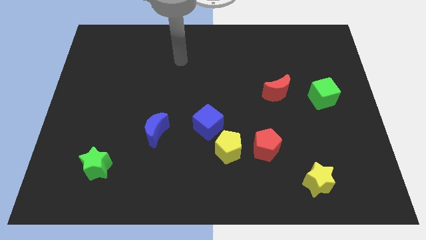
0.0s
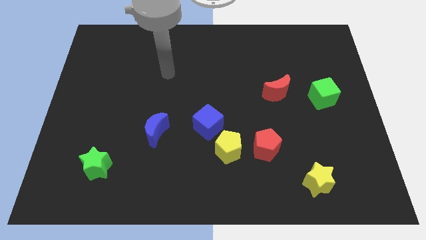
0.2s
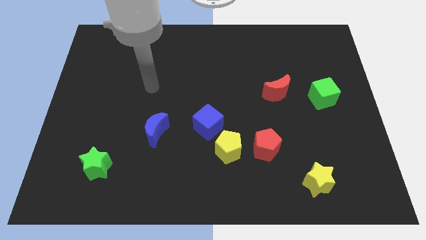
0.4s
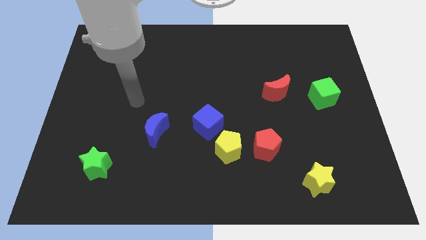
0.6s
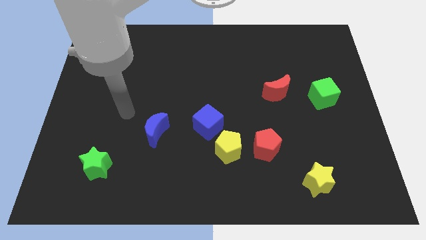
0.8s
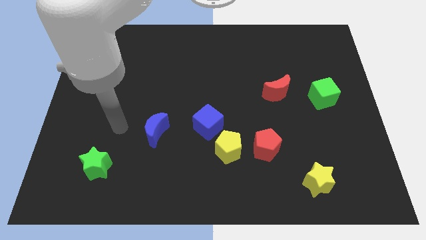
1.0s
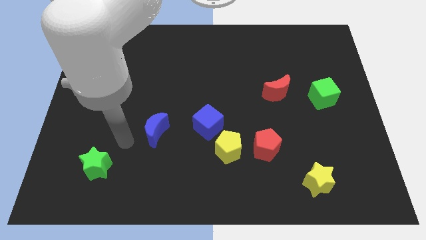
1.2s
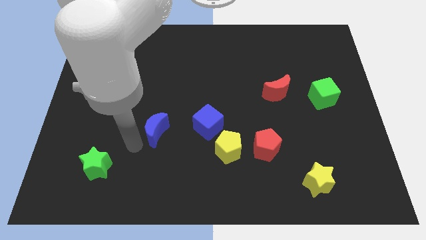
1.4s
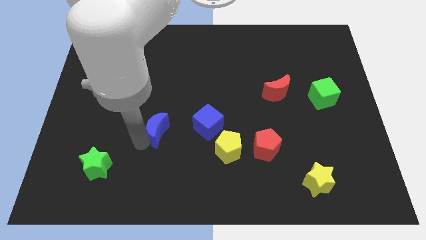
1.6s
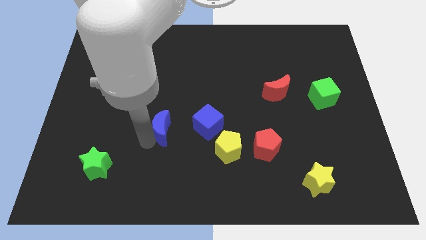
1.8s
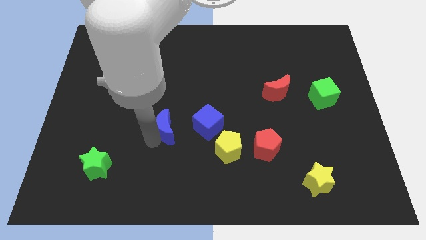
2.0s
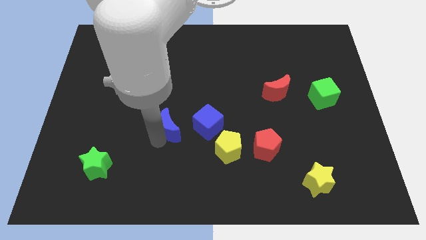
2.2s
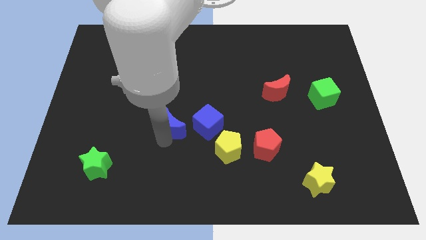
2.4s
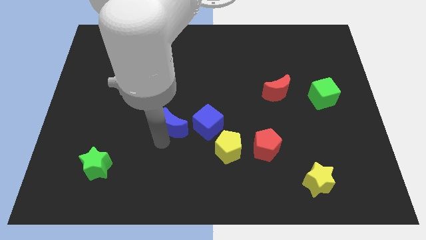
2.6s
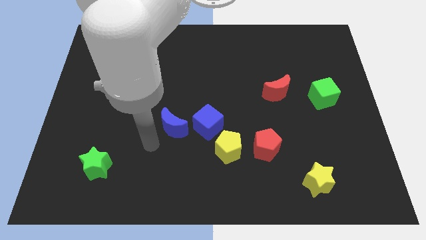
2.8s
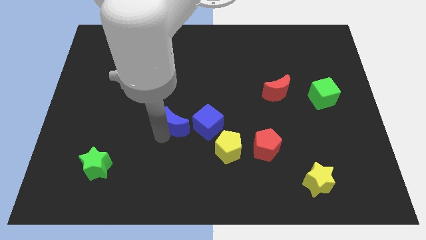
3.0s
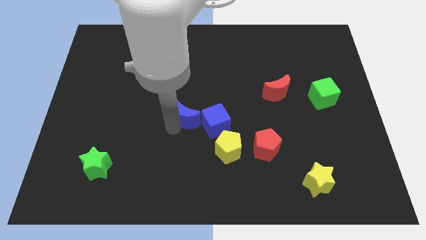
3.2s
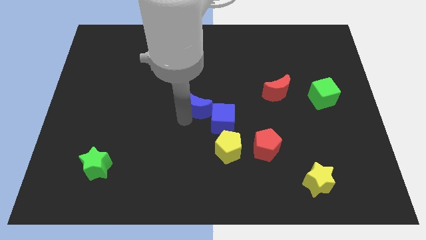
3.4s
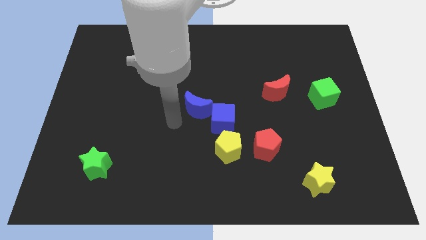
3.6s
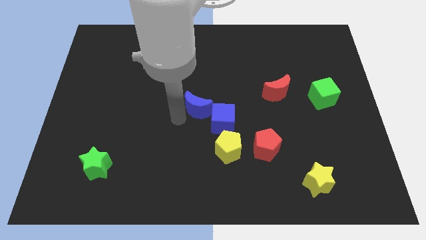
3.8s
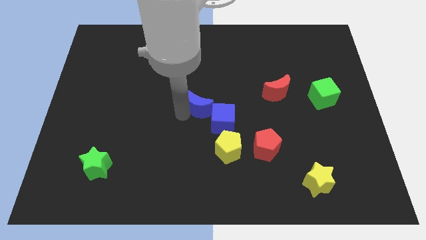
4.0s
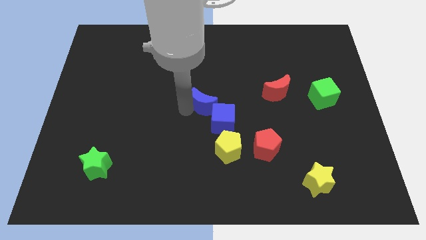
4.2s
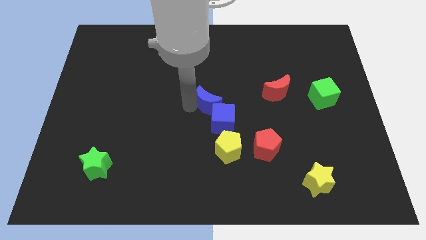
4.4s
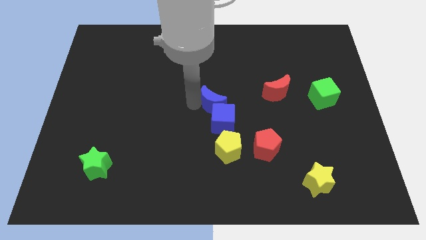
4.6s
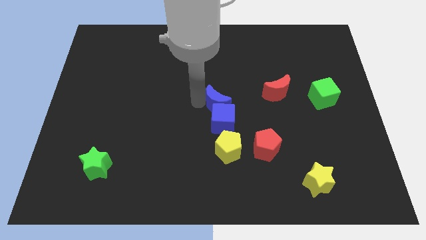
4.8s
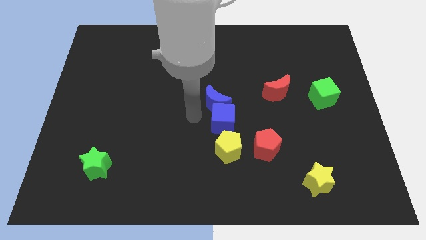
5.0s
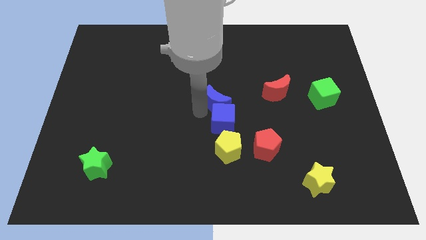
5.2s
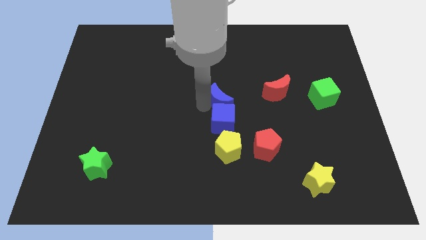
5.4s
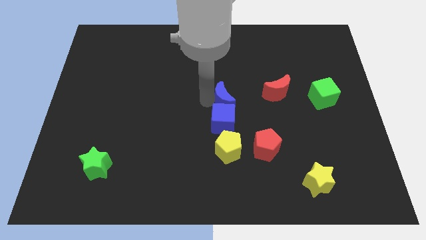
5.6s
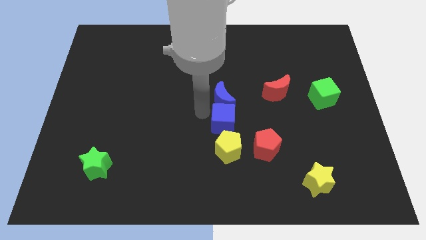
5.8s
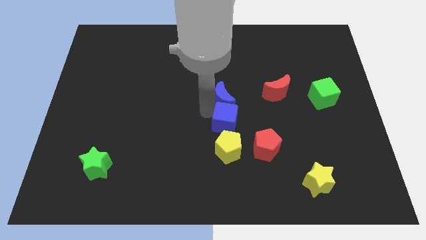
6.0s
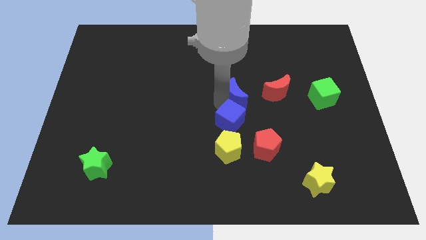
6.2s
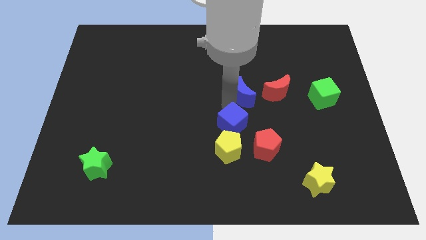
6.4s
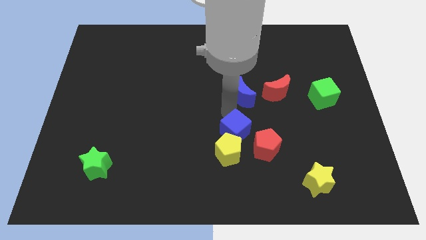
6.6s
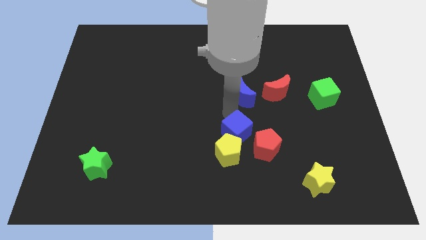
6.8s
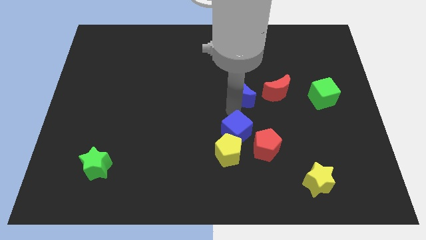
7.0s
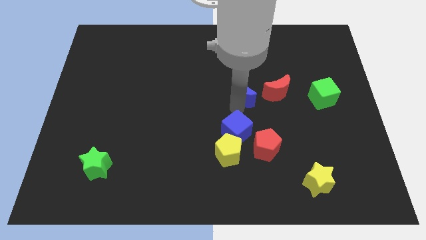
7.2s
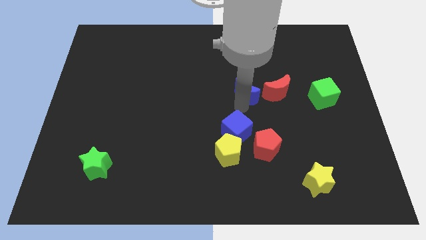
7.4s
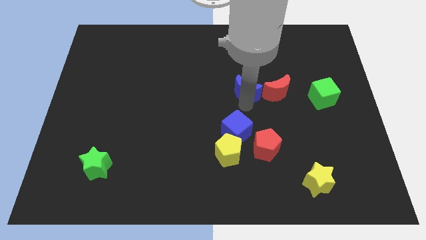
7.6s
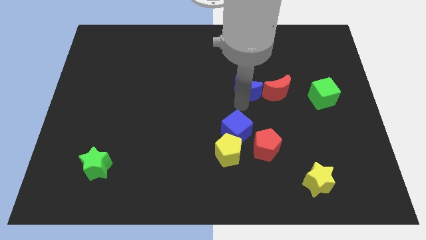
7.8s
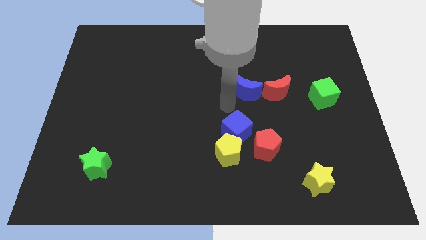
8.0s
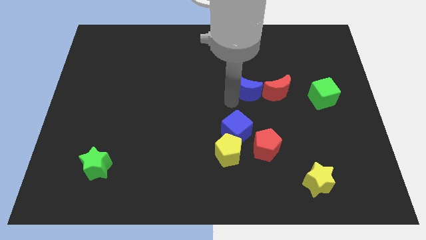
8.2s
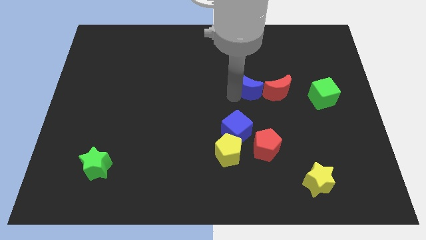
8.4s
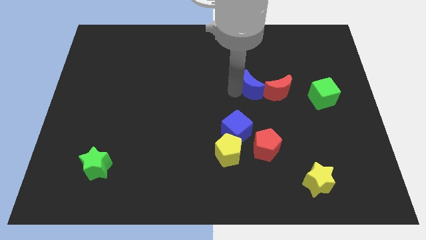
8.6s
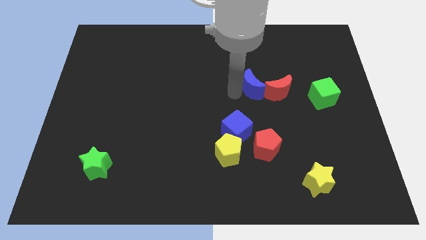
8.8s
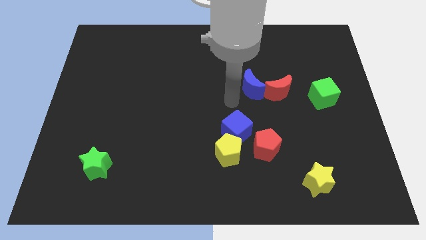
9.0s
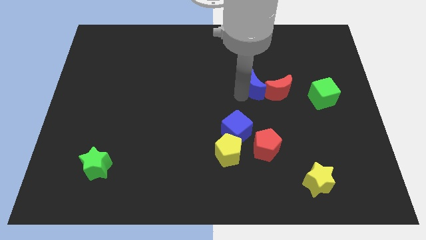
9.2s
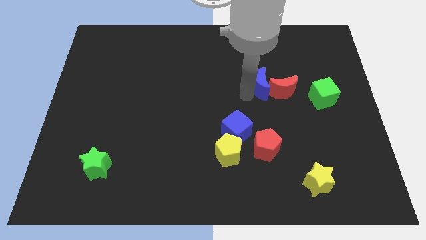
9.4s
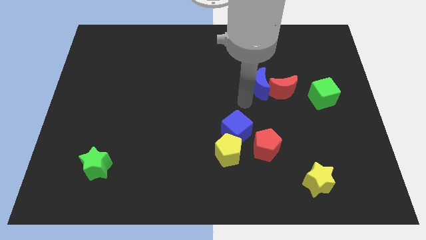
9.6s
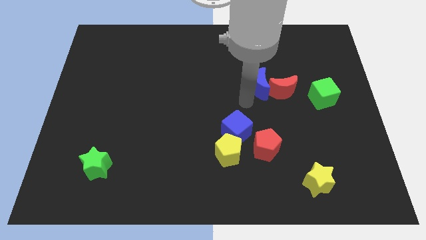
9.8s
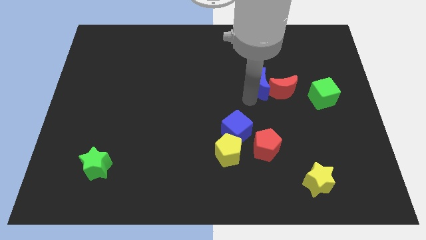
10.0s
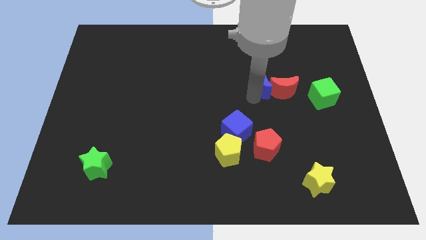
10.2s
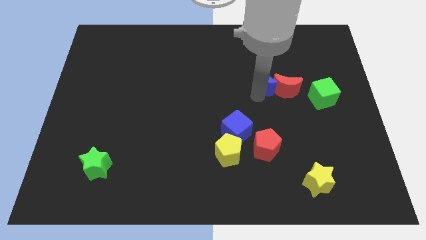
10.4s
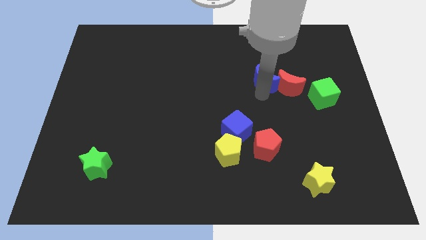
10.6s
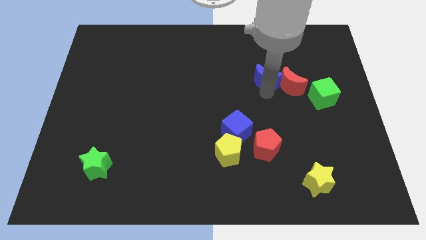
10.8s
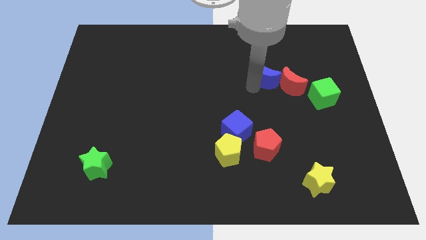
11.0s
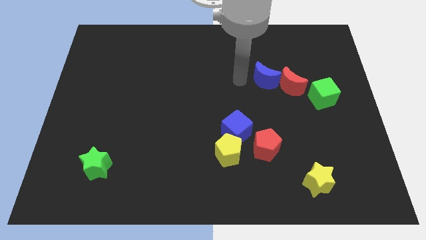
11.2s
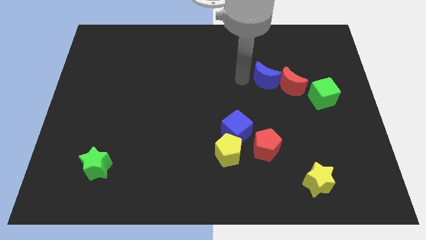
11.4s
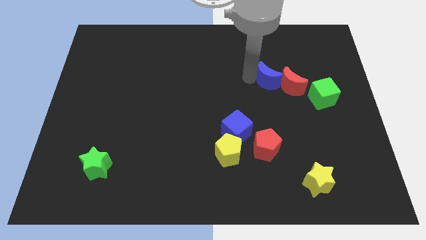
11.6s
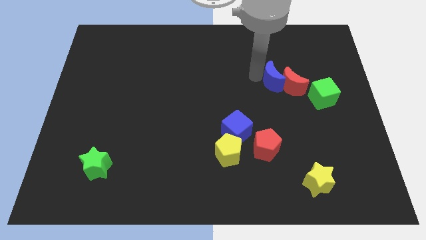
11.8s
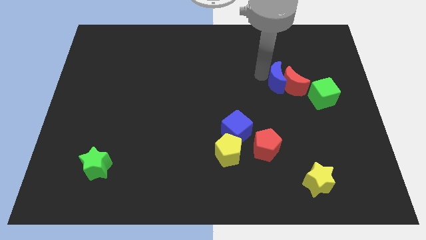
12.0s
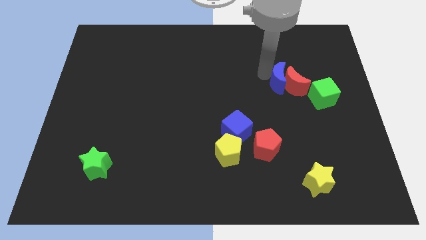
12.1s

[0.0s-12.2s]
push the blue moon diagonally up and to the left of the green cube

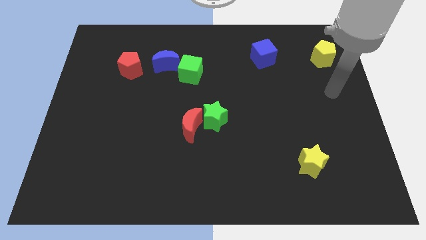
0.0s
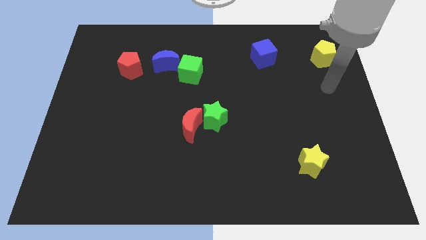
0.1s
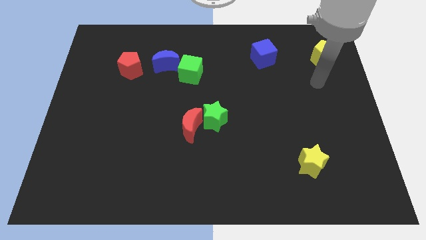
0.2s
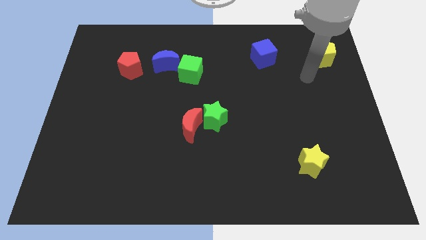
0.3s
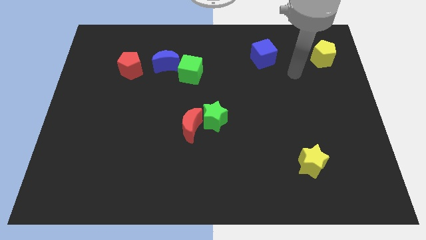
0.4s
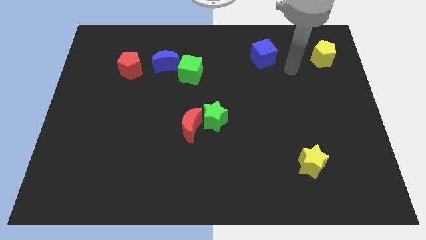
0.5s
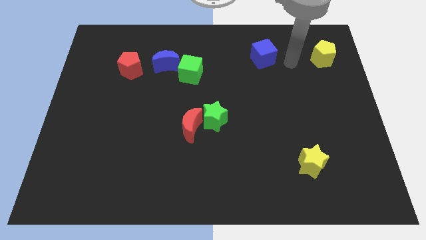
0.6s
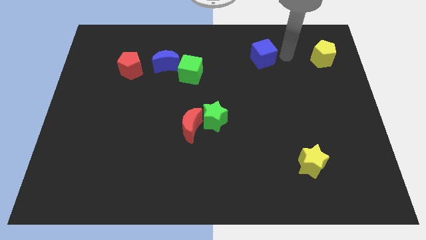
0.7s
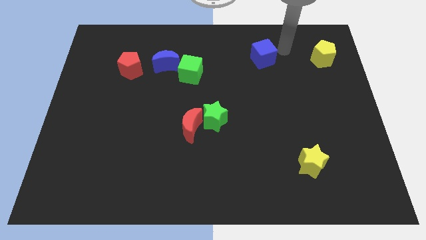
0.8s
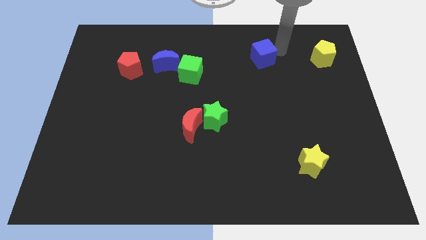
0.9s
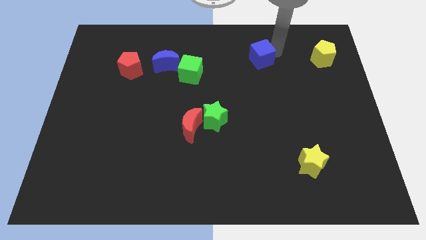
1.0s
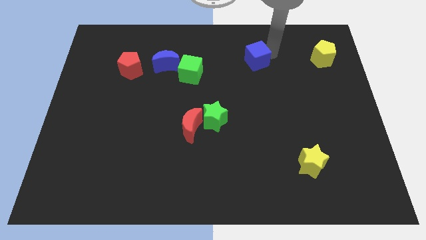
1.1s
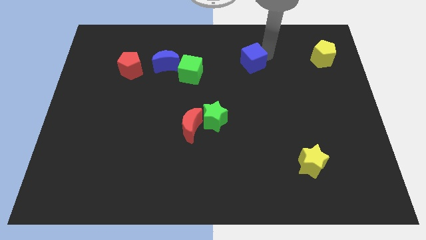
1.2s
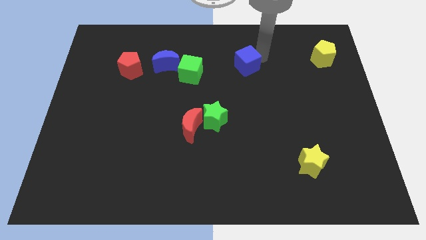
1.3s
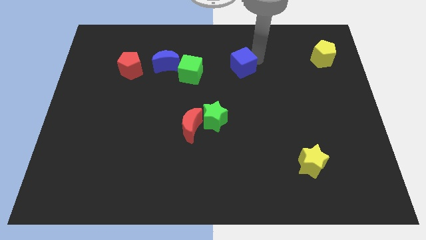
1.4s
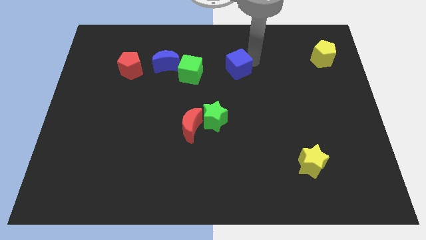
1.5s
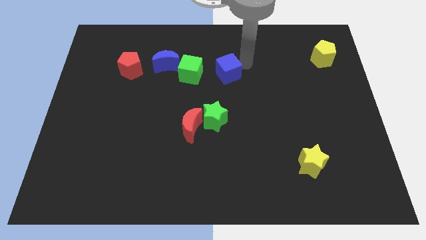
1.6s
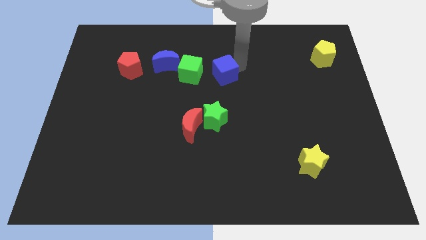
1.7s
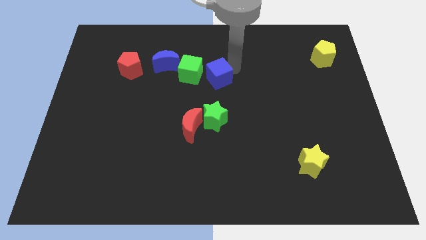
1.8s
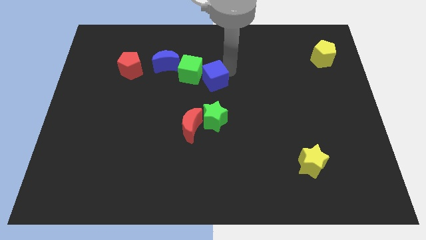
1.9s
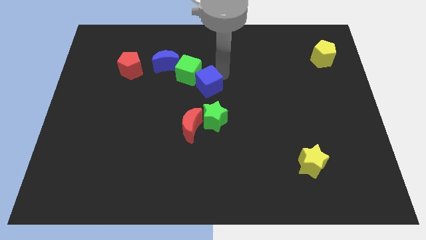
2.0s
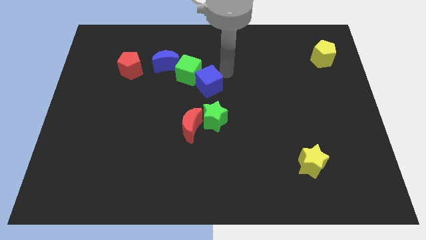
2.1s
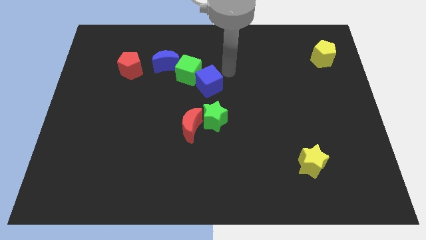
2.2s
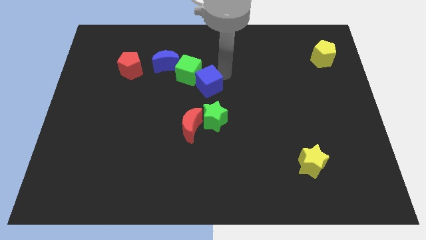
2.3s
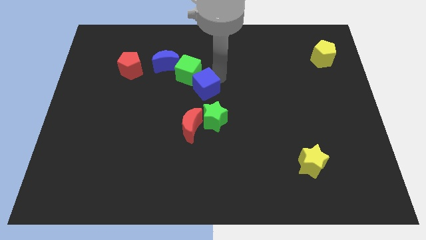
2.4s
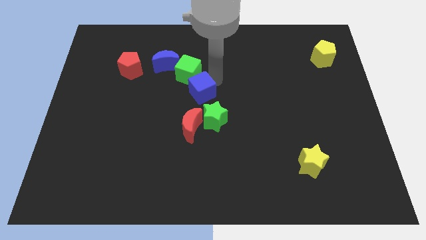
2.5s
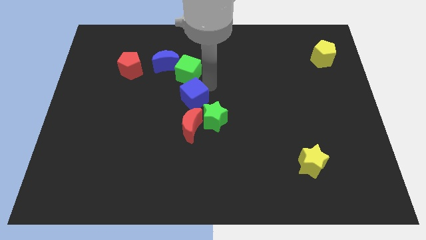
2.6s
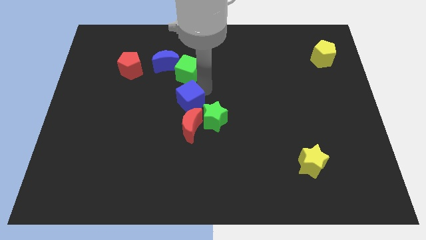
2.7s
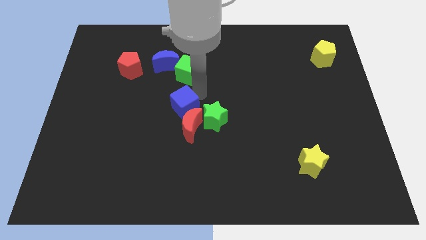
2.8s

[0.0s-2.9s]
put the blue cube diagonally up and to the left of the red moon
